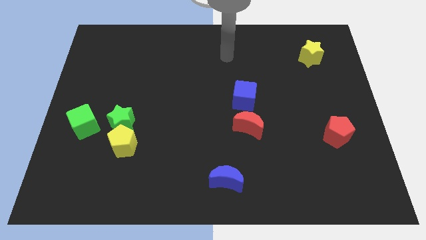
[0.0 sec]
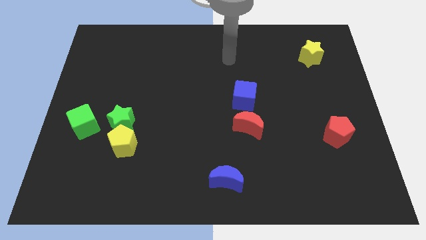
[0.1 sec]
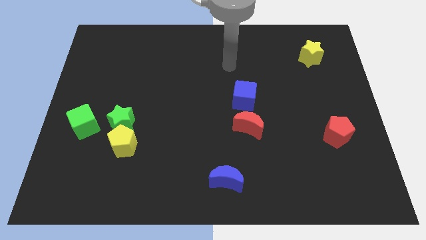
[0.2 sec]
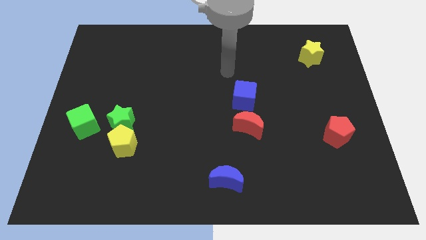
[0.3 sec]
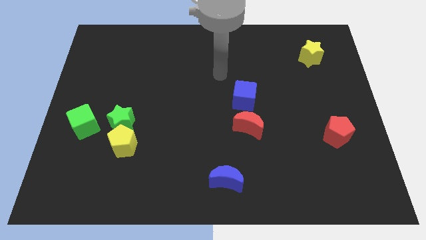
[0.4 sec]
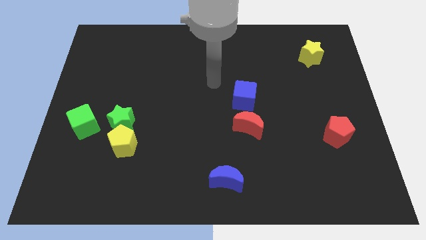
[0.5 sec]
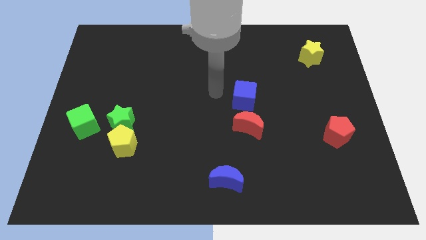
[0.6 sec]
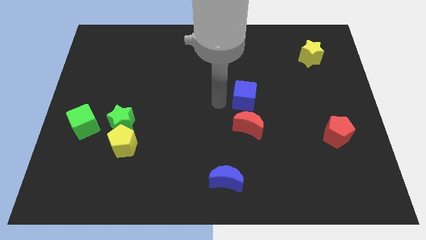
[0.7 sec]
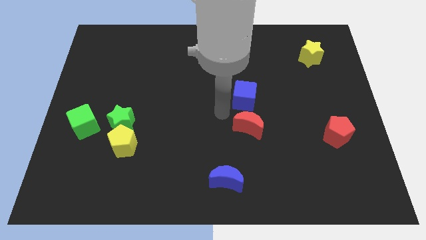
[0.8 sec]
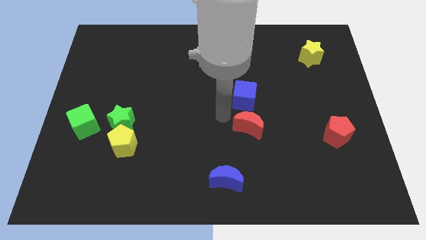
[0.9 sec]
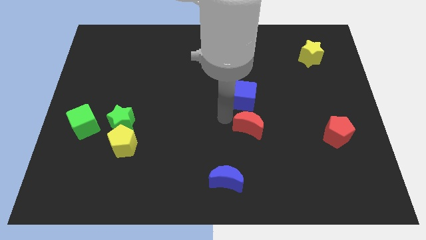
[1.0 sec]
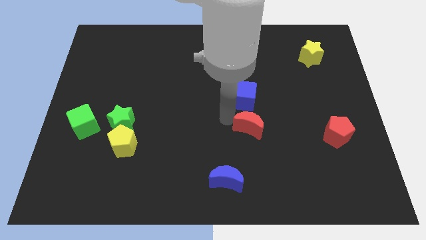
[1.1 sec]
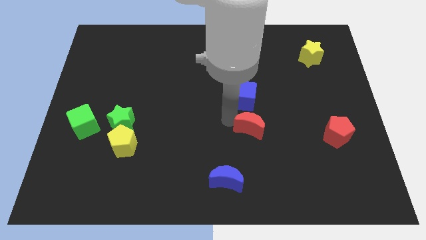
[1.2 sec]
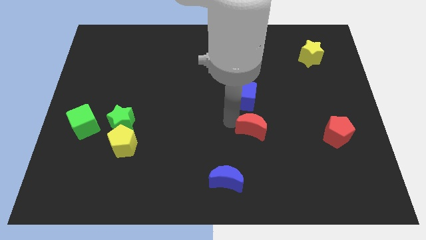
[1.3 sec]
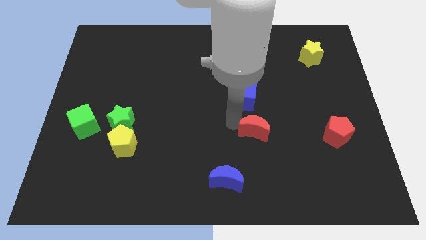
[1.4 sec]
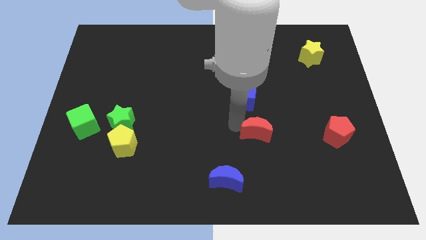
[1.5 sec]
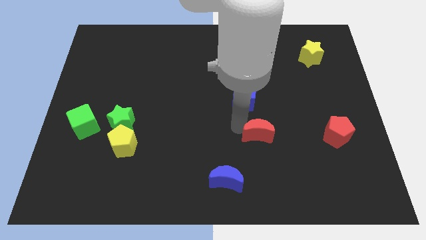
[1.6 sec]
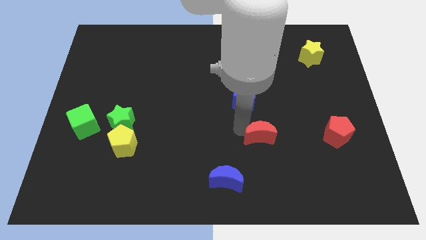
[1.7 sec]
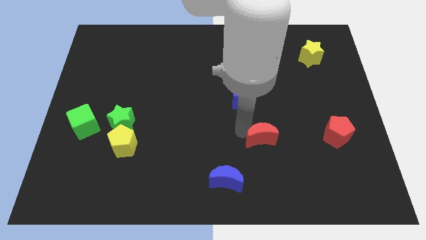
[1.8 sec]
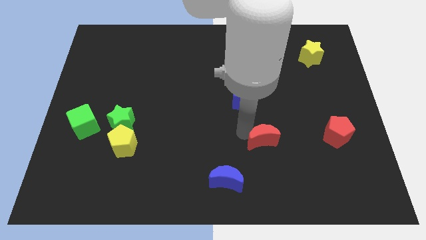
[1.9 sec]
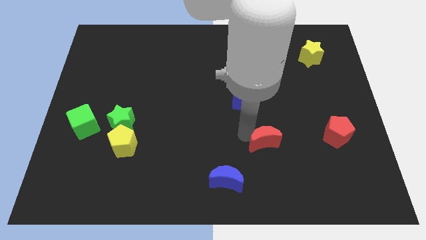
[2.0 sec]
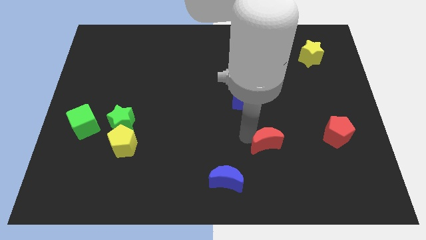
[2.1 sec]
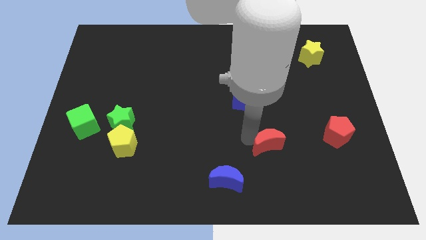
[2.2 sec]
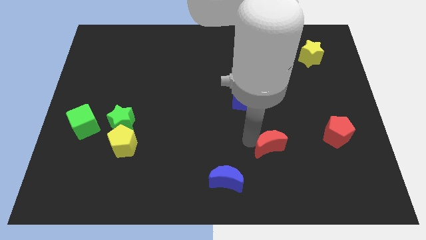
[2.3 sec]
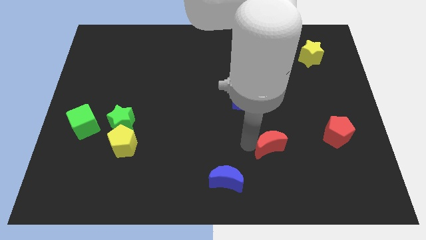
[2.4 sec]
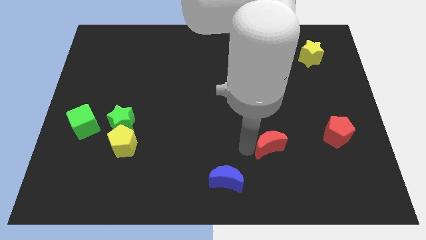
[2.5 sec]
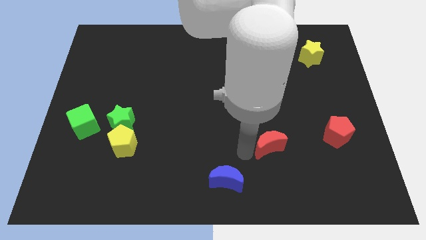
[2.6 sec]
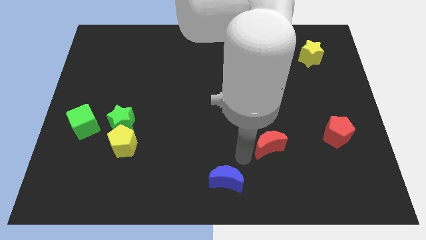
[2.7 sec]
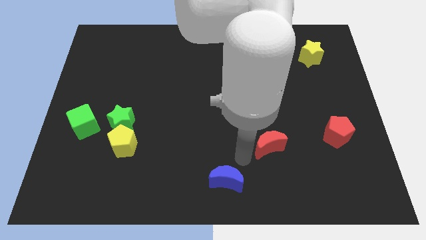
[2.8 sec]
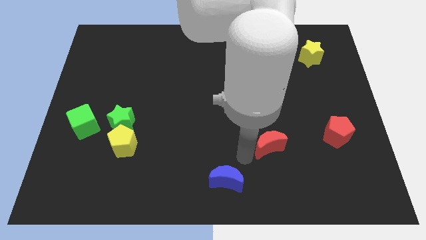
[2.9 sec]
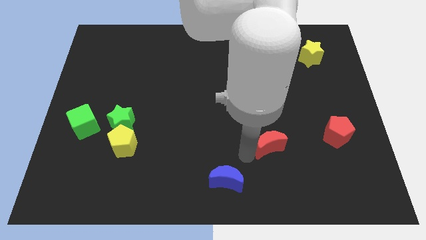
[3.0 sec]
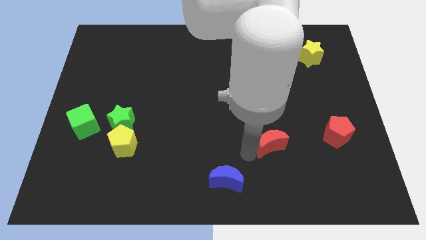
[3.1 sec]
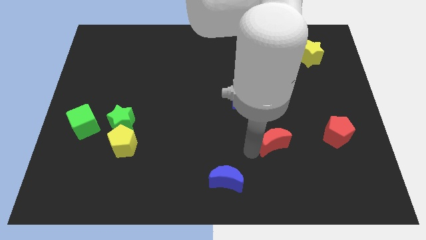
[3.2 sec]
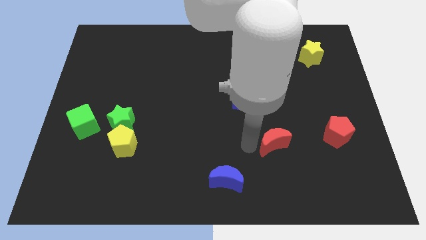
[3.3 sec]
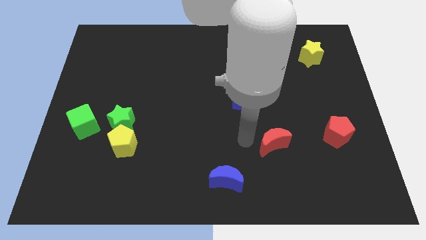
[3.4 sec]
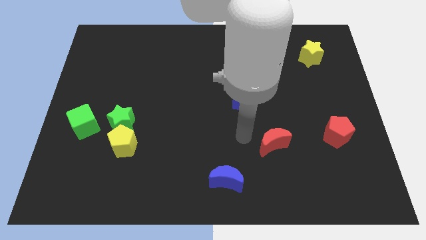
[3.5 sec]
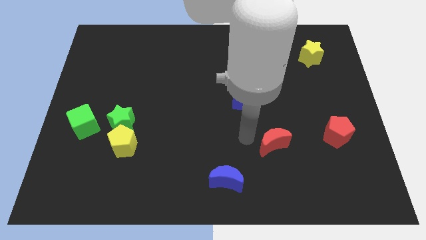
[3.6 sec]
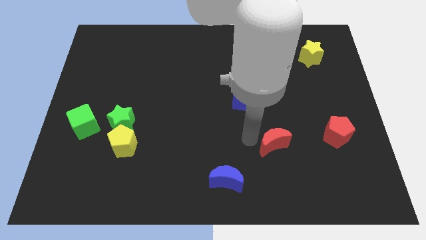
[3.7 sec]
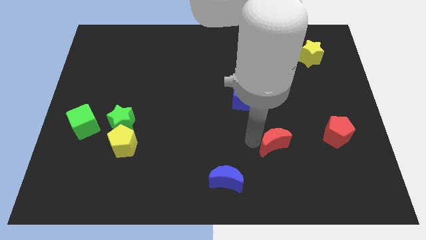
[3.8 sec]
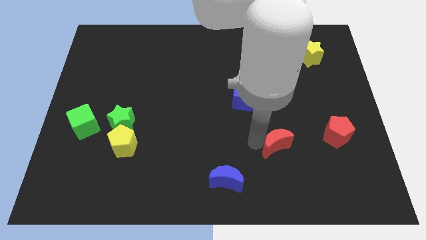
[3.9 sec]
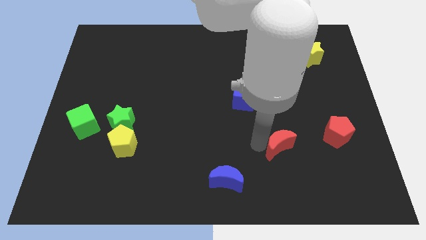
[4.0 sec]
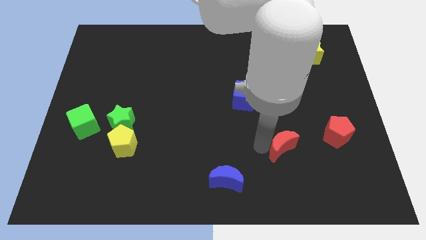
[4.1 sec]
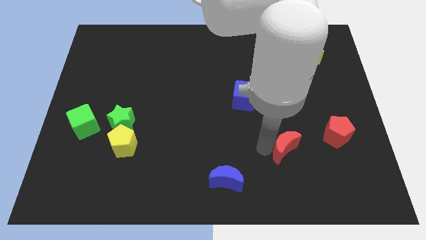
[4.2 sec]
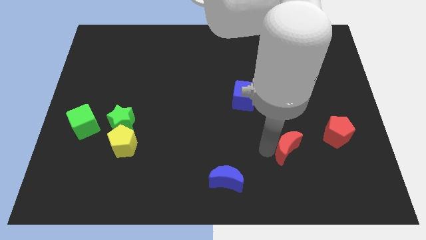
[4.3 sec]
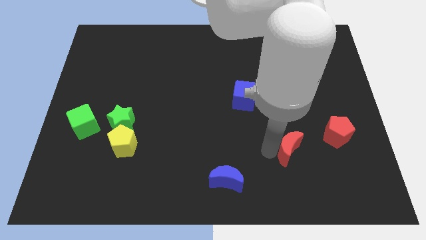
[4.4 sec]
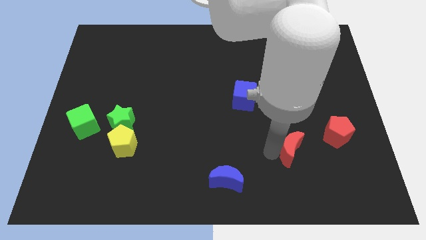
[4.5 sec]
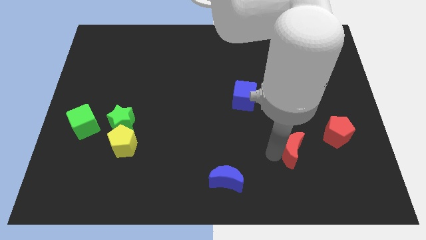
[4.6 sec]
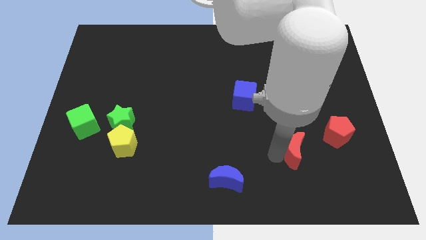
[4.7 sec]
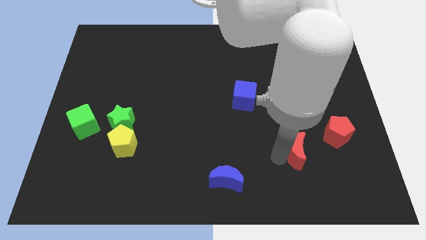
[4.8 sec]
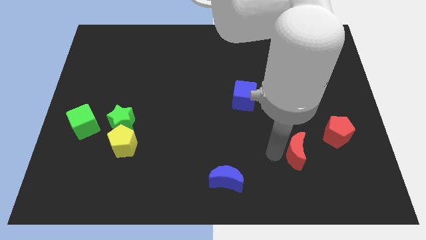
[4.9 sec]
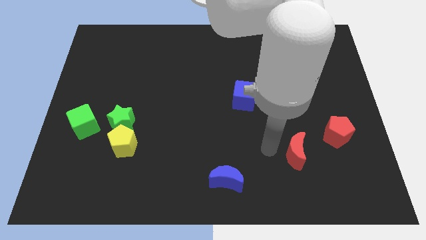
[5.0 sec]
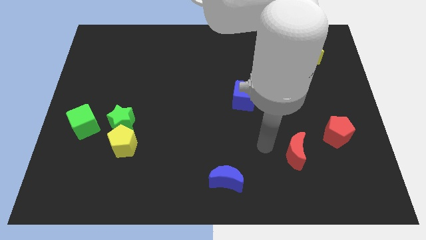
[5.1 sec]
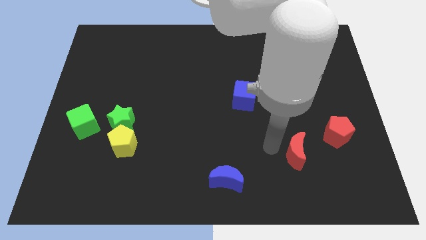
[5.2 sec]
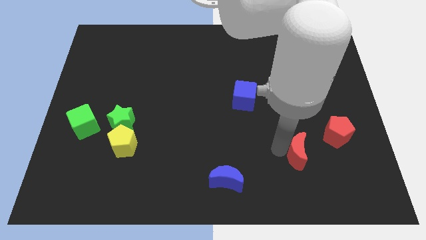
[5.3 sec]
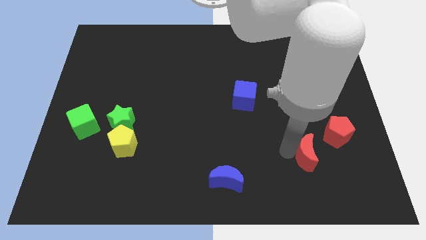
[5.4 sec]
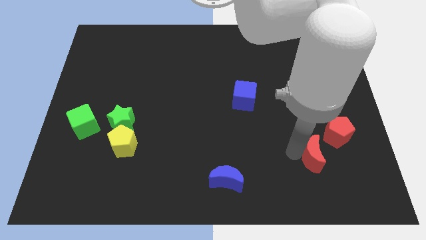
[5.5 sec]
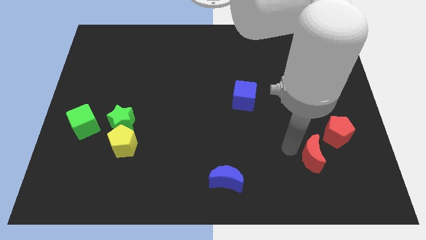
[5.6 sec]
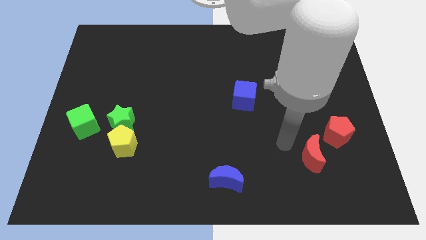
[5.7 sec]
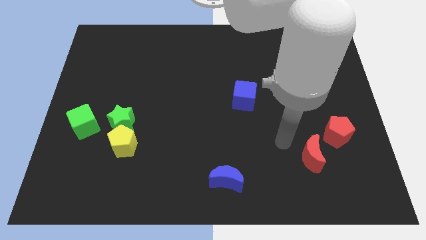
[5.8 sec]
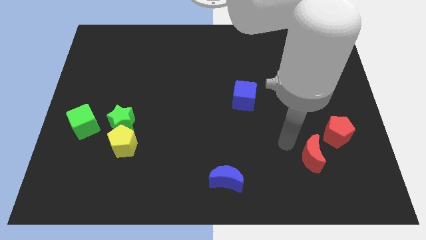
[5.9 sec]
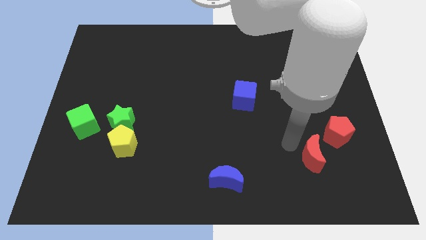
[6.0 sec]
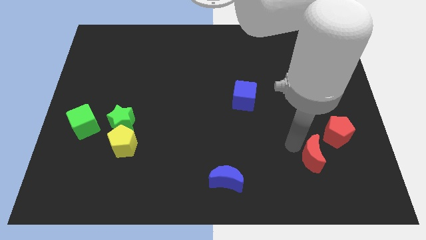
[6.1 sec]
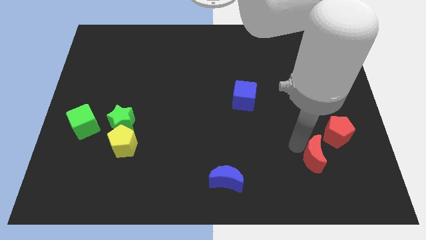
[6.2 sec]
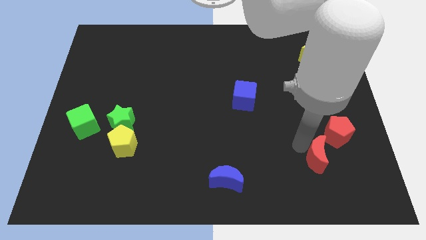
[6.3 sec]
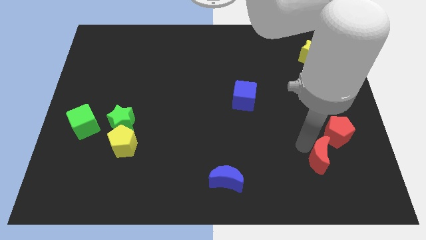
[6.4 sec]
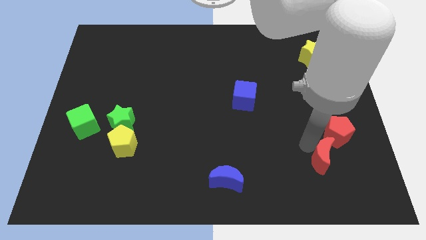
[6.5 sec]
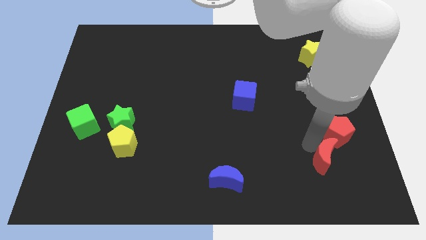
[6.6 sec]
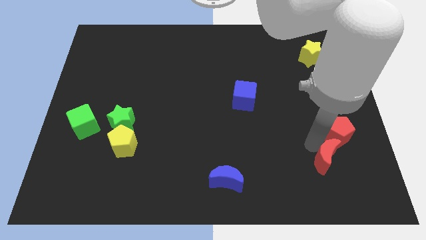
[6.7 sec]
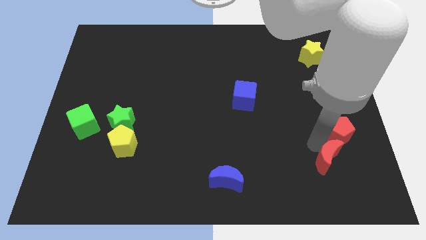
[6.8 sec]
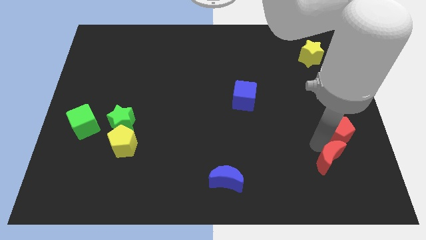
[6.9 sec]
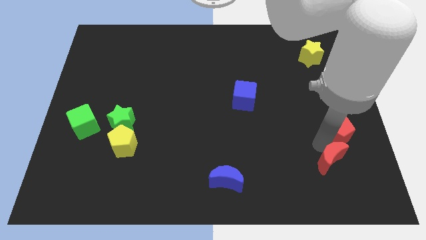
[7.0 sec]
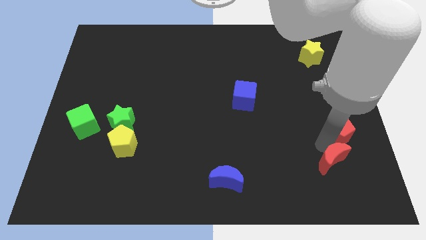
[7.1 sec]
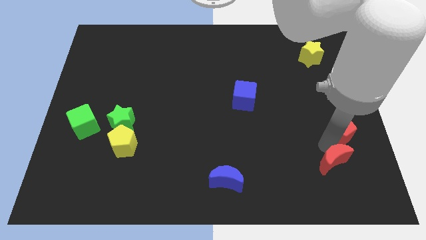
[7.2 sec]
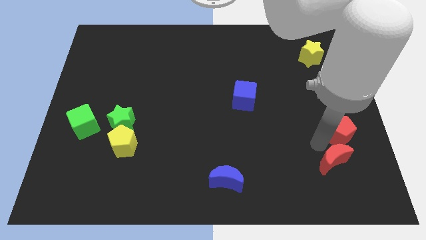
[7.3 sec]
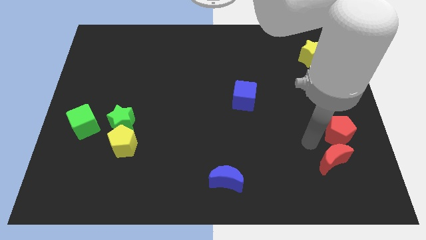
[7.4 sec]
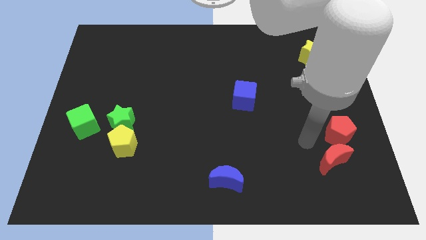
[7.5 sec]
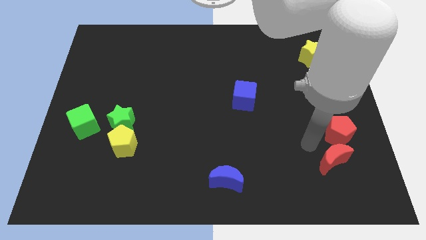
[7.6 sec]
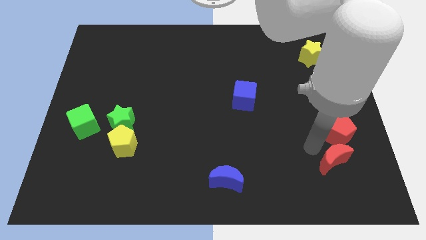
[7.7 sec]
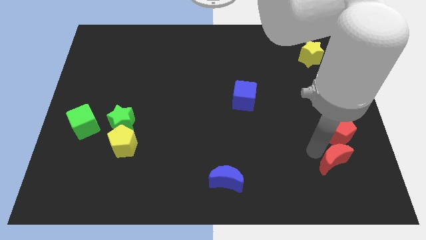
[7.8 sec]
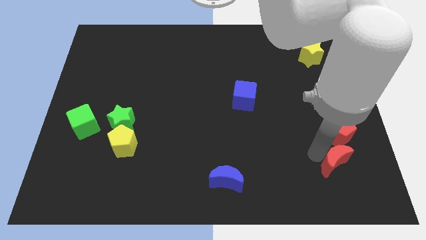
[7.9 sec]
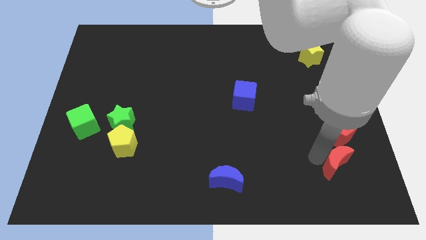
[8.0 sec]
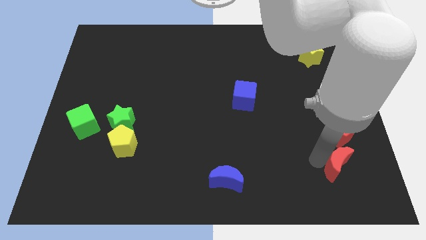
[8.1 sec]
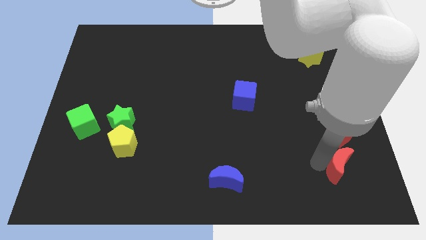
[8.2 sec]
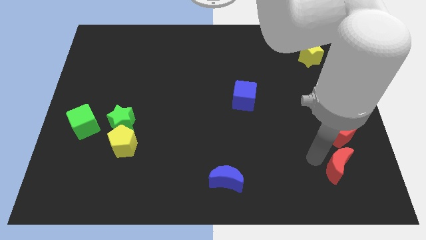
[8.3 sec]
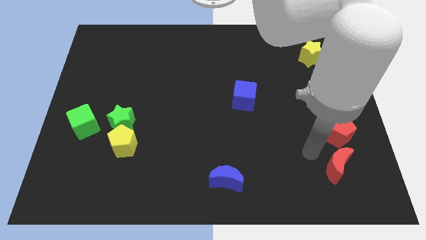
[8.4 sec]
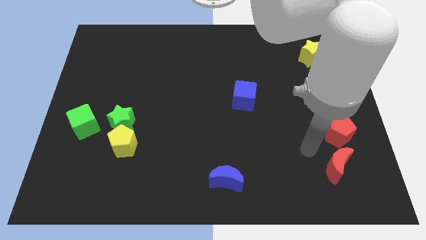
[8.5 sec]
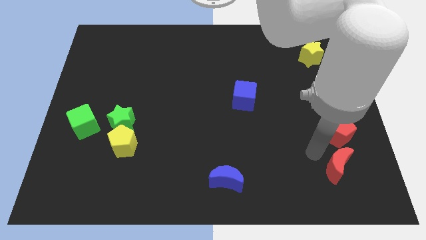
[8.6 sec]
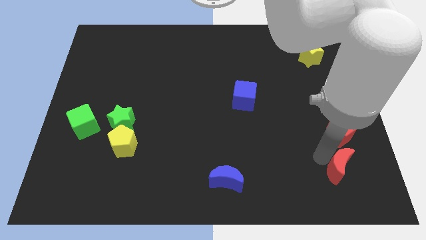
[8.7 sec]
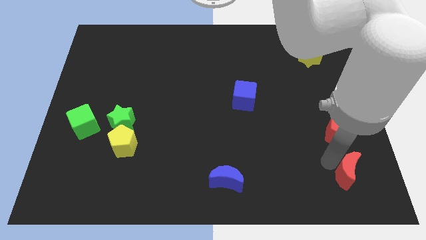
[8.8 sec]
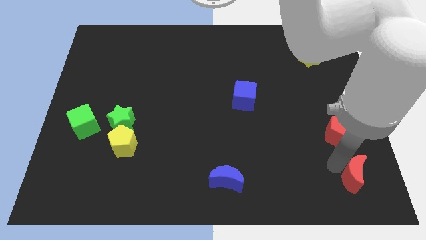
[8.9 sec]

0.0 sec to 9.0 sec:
move the red moon to the bottom right of the board
